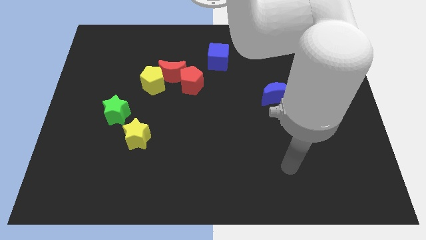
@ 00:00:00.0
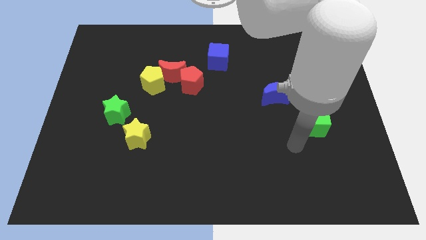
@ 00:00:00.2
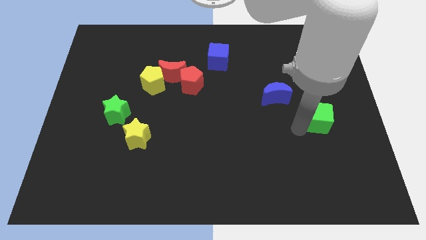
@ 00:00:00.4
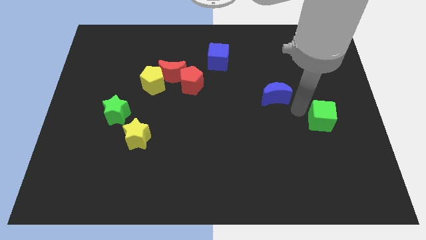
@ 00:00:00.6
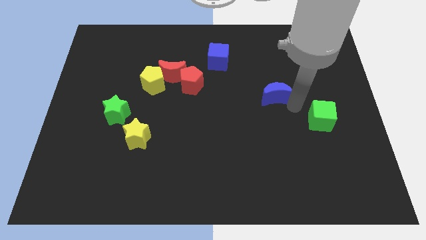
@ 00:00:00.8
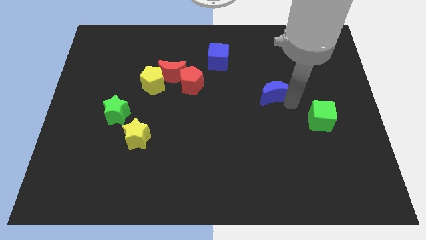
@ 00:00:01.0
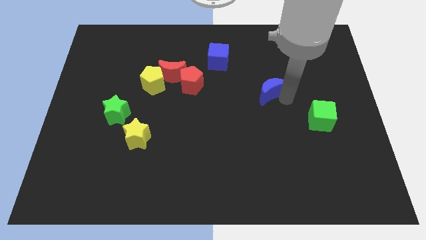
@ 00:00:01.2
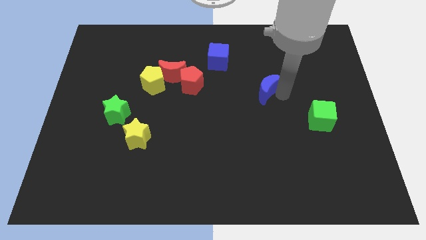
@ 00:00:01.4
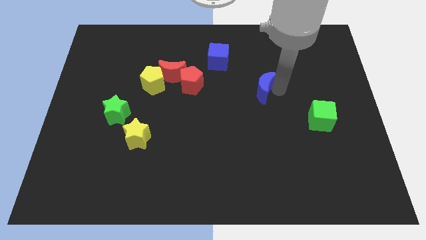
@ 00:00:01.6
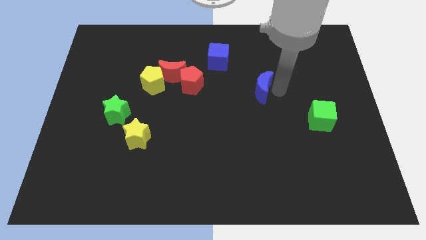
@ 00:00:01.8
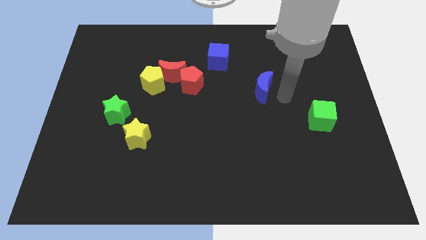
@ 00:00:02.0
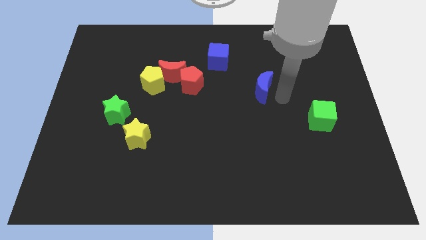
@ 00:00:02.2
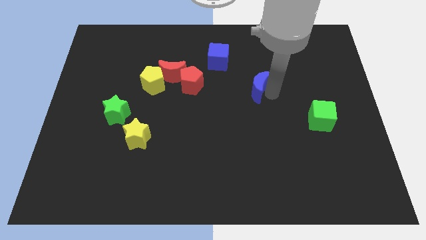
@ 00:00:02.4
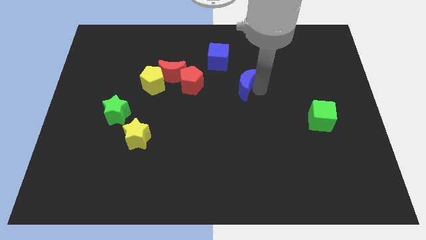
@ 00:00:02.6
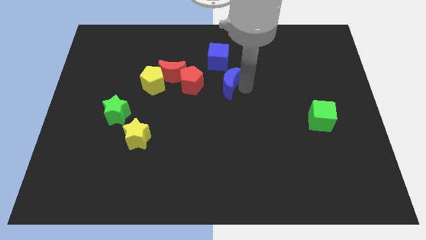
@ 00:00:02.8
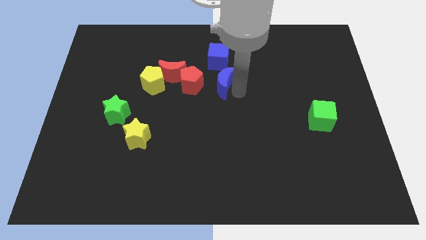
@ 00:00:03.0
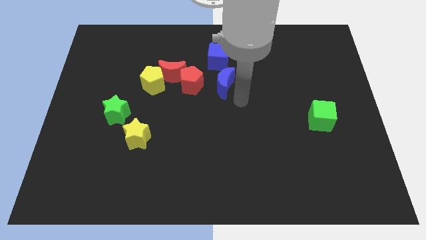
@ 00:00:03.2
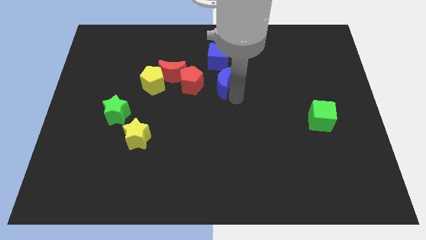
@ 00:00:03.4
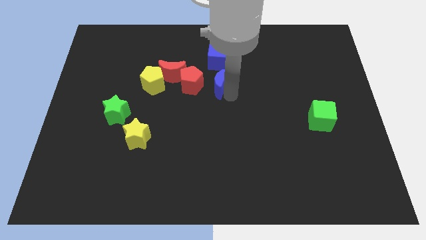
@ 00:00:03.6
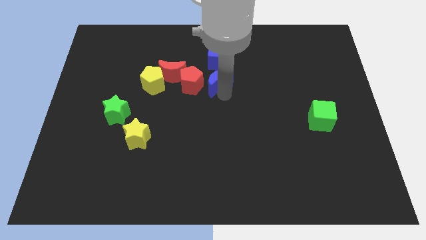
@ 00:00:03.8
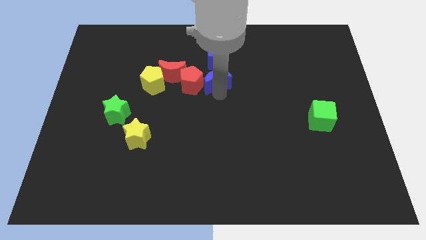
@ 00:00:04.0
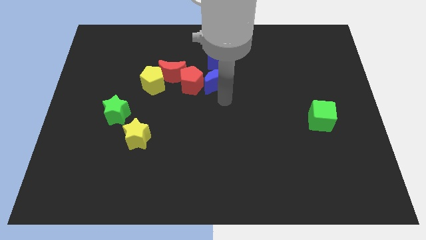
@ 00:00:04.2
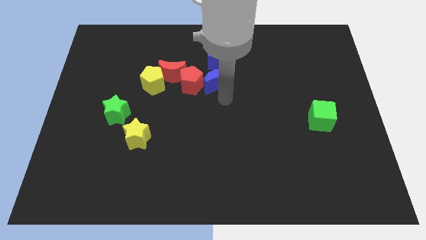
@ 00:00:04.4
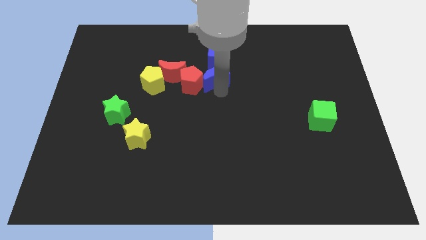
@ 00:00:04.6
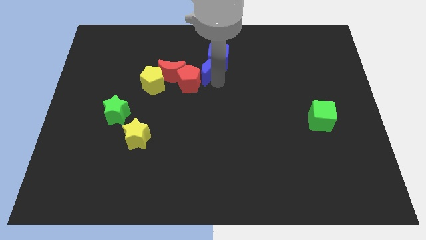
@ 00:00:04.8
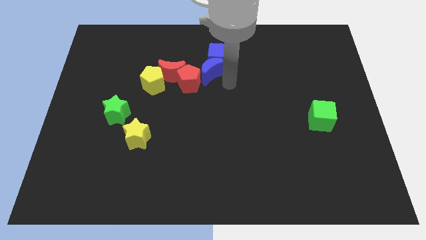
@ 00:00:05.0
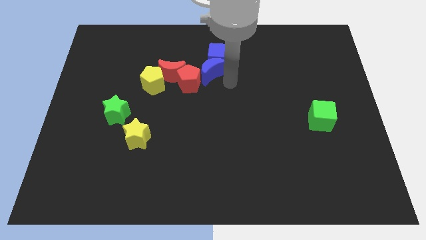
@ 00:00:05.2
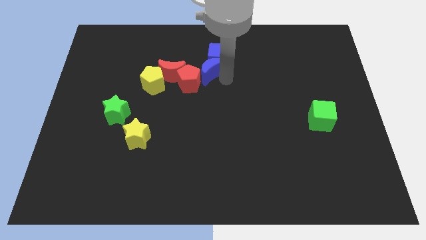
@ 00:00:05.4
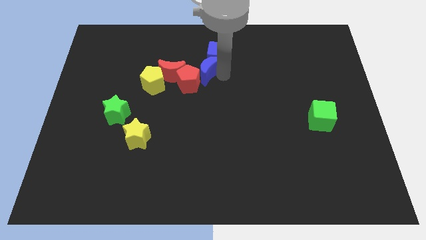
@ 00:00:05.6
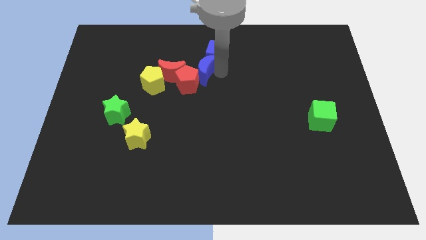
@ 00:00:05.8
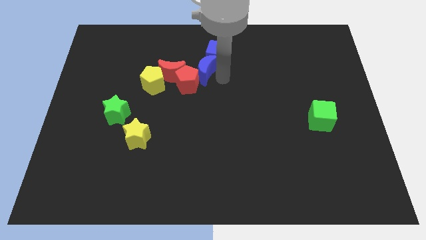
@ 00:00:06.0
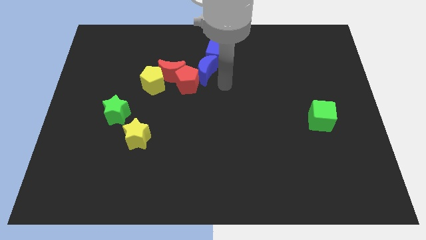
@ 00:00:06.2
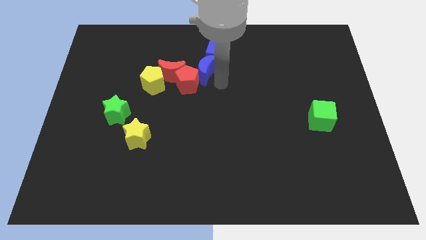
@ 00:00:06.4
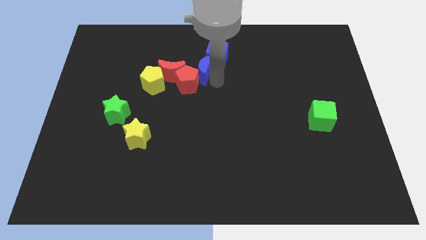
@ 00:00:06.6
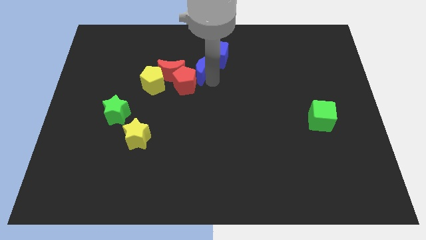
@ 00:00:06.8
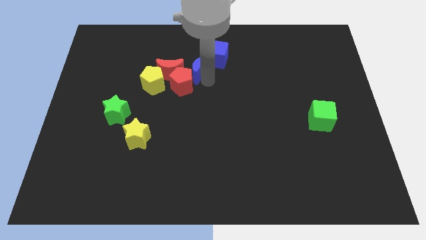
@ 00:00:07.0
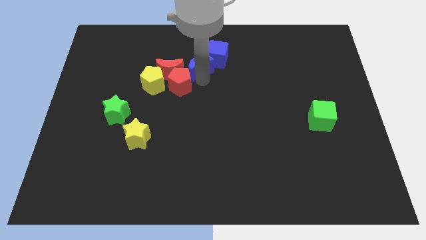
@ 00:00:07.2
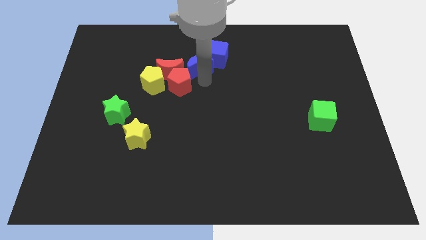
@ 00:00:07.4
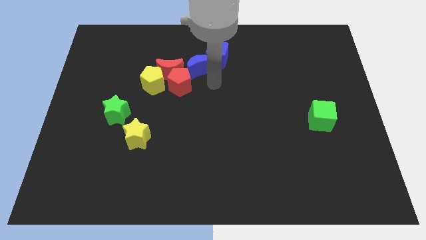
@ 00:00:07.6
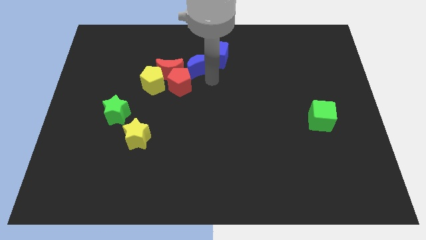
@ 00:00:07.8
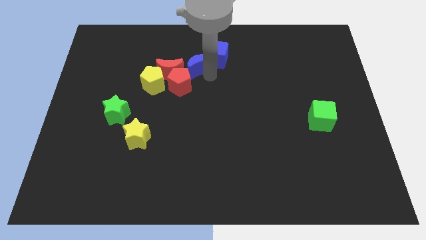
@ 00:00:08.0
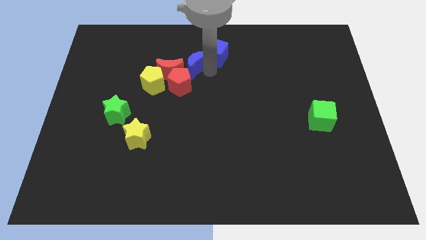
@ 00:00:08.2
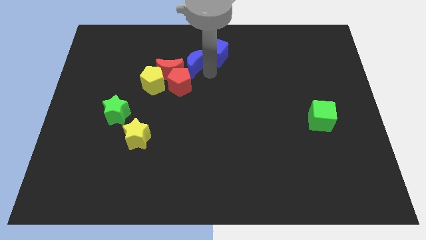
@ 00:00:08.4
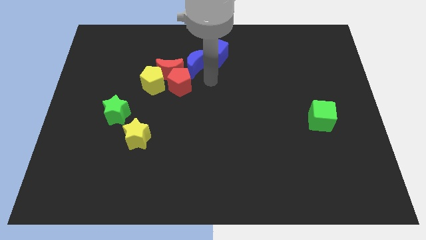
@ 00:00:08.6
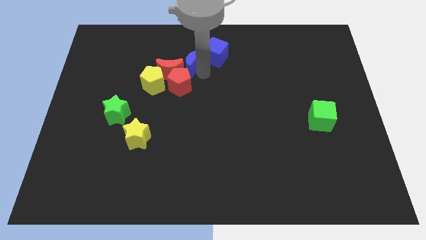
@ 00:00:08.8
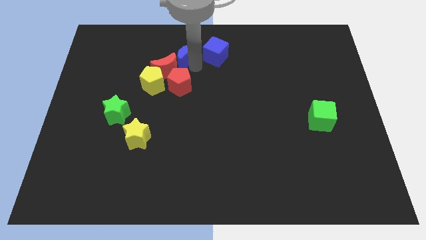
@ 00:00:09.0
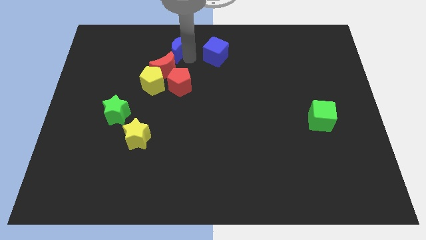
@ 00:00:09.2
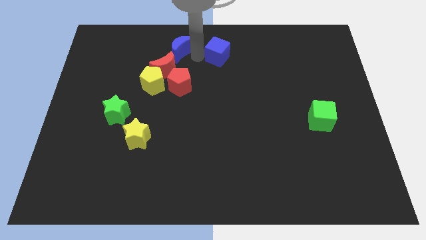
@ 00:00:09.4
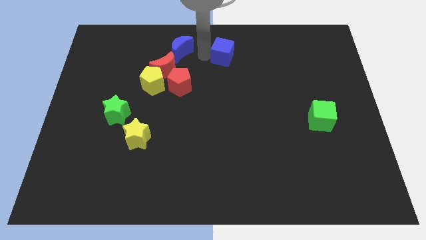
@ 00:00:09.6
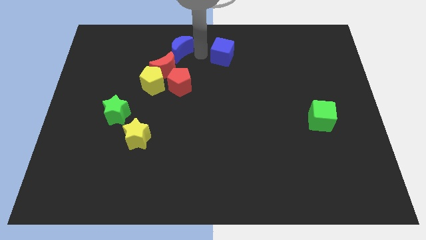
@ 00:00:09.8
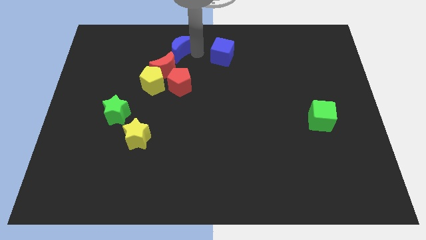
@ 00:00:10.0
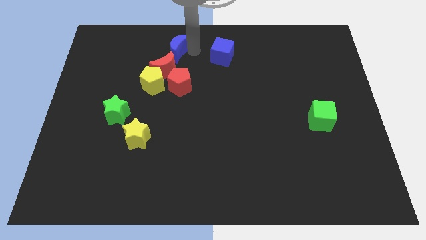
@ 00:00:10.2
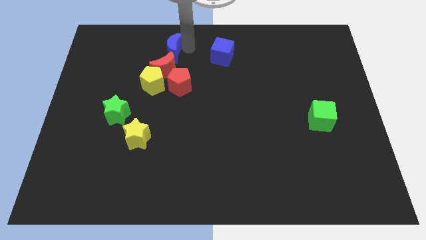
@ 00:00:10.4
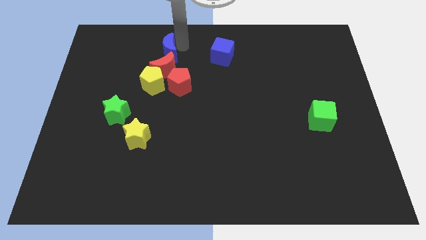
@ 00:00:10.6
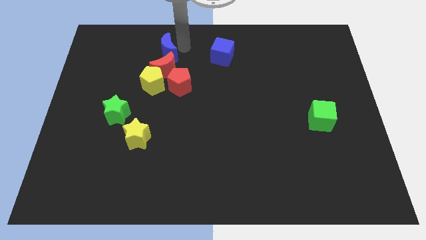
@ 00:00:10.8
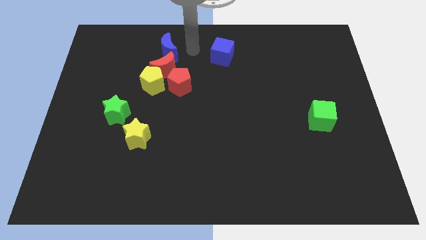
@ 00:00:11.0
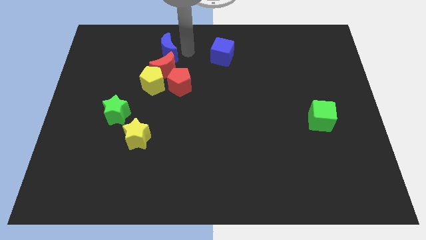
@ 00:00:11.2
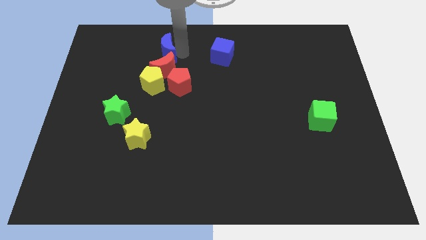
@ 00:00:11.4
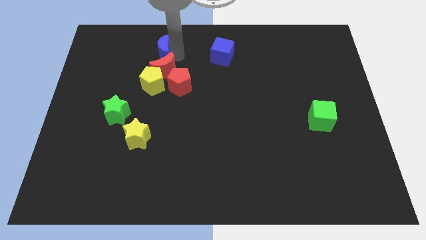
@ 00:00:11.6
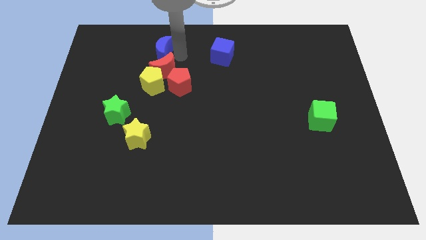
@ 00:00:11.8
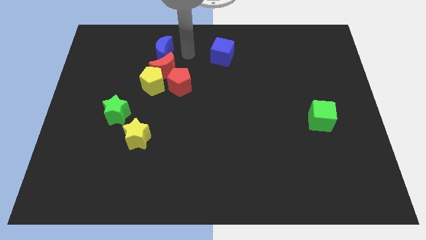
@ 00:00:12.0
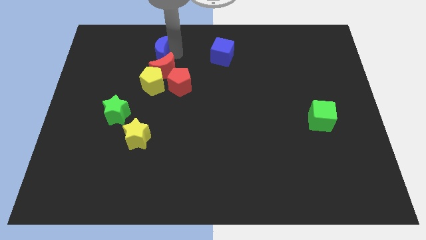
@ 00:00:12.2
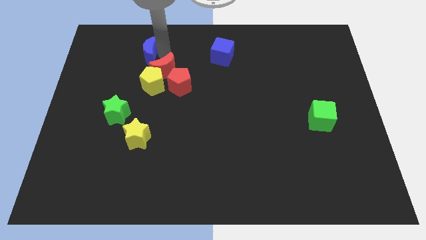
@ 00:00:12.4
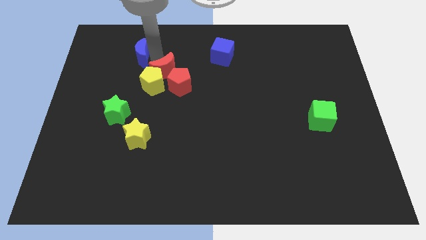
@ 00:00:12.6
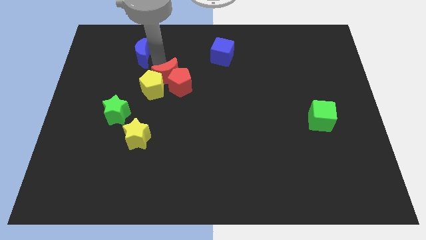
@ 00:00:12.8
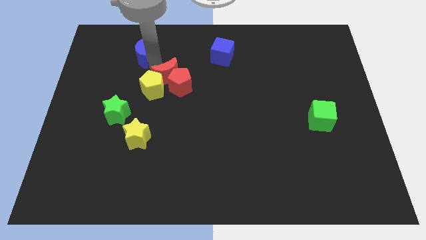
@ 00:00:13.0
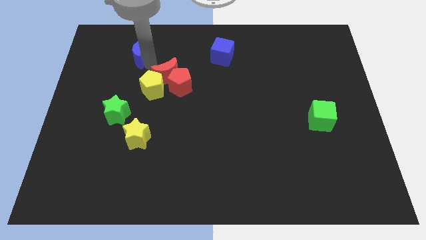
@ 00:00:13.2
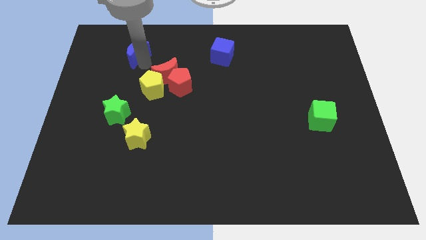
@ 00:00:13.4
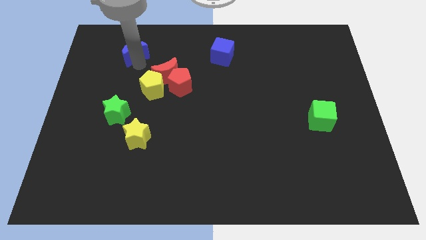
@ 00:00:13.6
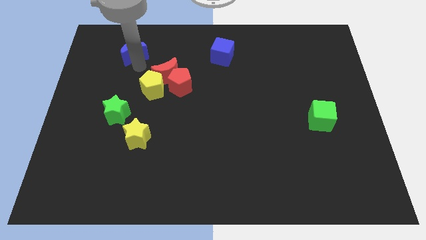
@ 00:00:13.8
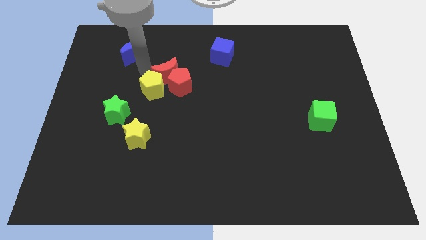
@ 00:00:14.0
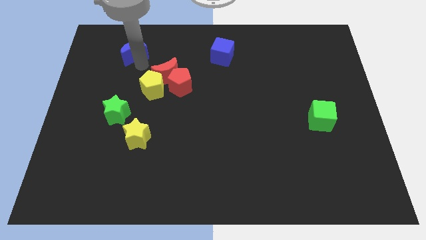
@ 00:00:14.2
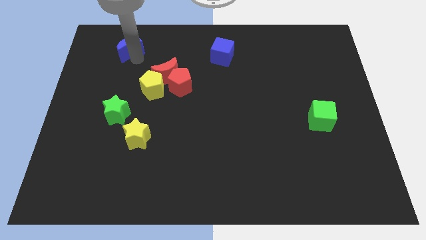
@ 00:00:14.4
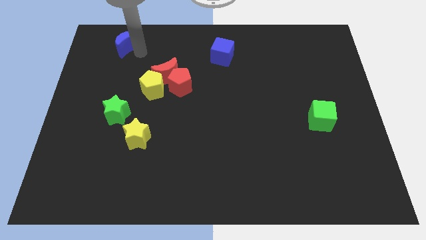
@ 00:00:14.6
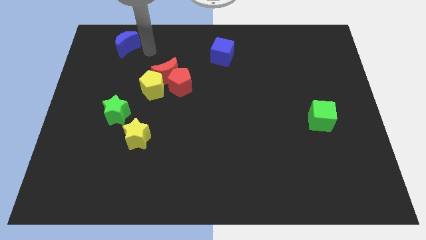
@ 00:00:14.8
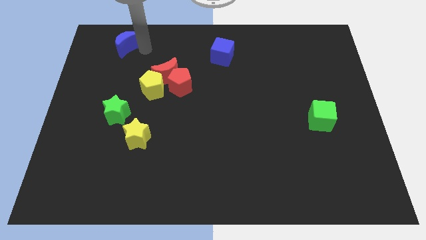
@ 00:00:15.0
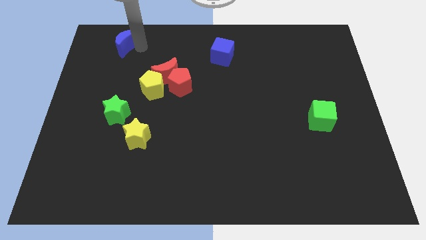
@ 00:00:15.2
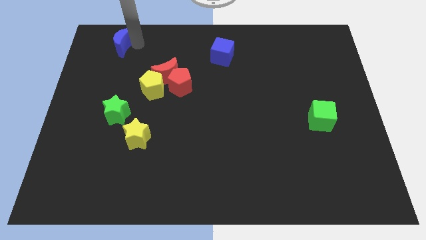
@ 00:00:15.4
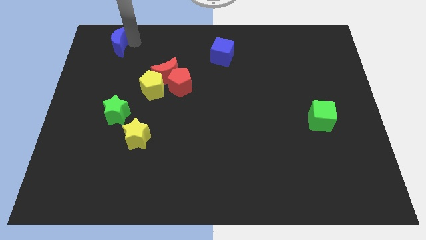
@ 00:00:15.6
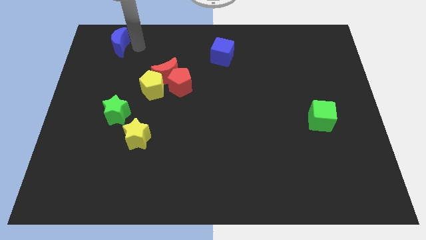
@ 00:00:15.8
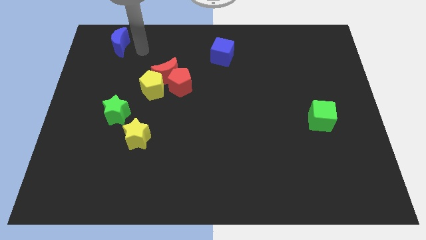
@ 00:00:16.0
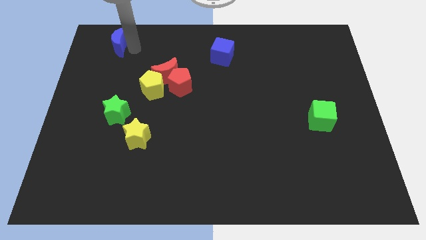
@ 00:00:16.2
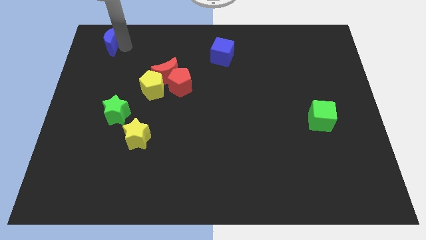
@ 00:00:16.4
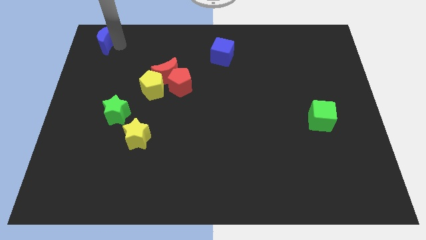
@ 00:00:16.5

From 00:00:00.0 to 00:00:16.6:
slide the blue moon to the top left
